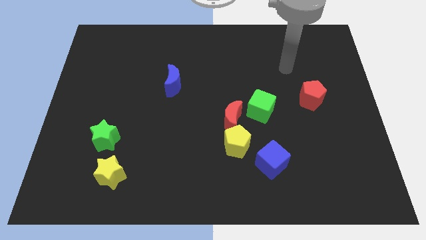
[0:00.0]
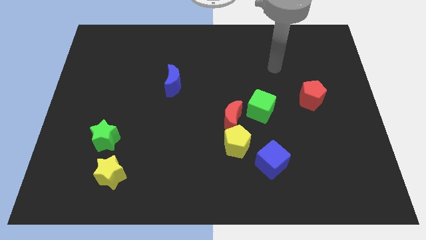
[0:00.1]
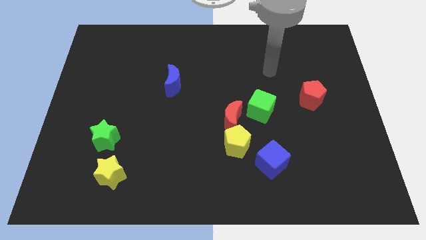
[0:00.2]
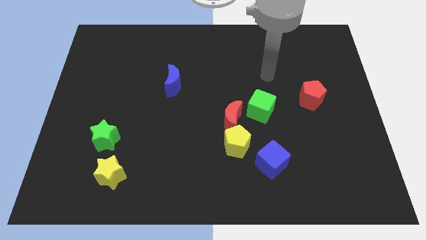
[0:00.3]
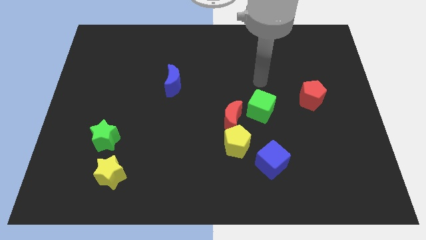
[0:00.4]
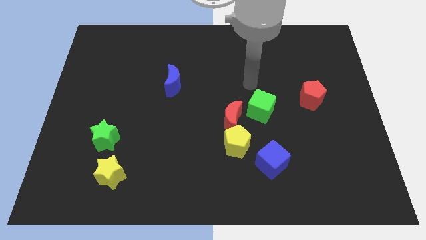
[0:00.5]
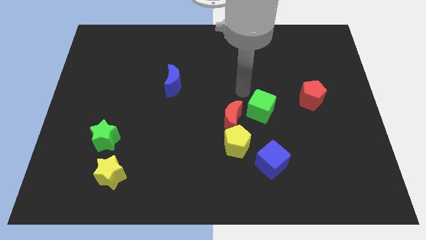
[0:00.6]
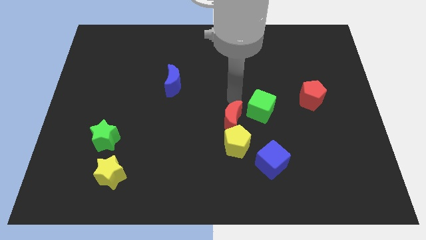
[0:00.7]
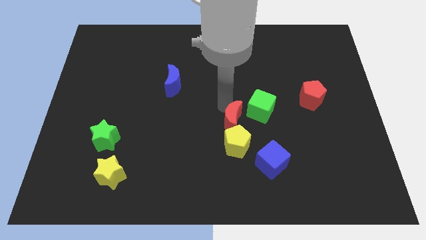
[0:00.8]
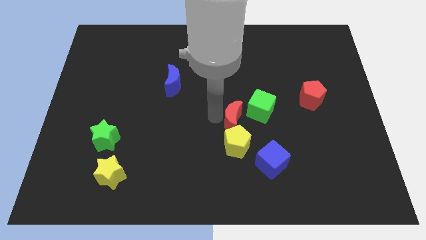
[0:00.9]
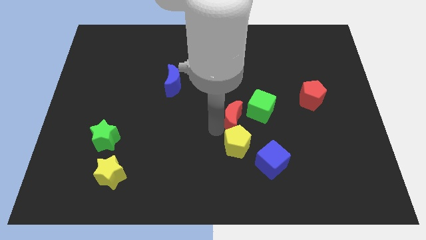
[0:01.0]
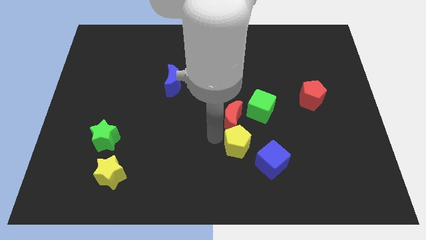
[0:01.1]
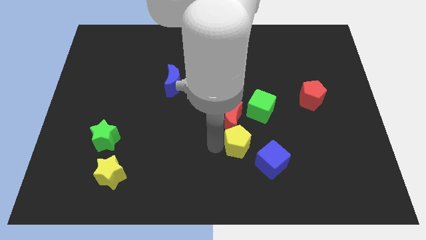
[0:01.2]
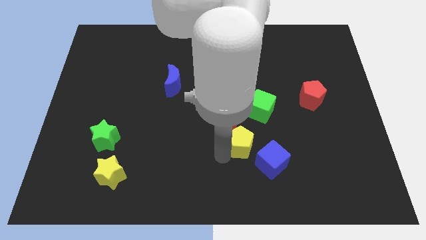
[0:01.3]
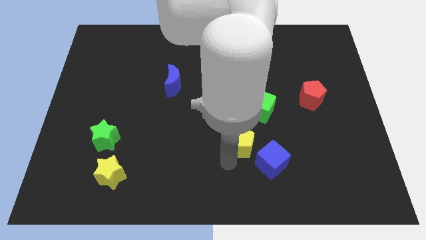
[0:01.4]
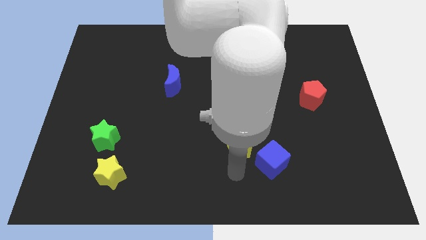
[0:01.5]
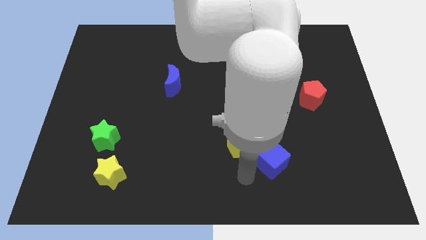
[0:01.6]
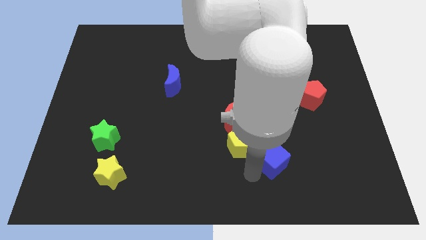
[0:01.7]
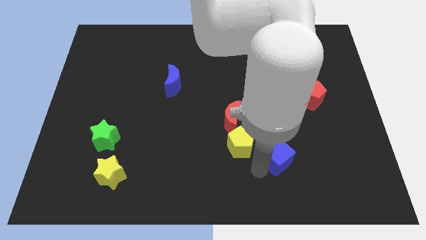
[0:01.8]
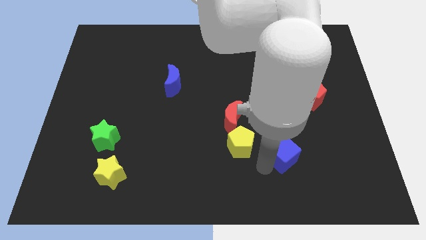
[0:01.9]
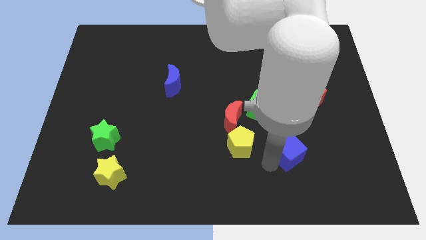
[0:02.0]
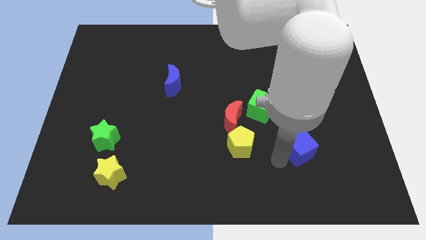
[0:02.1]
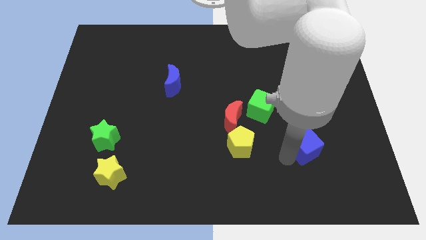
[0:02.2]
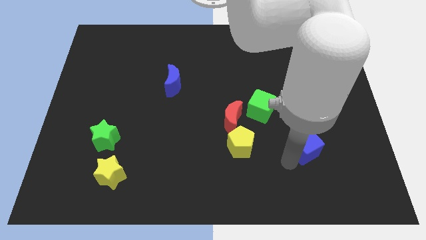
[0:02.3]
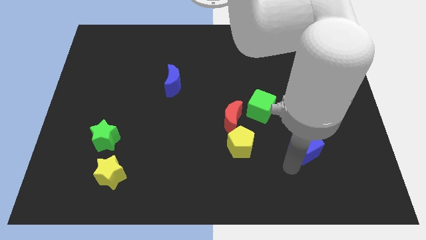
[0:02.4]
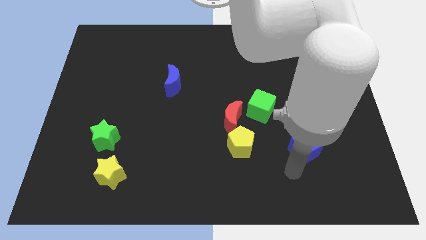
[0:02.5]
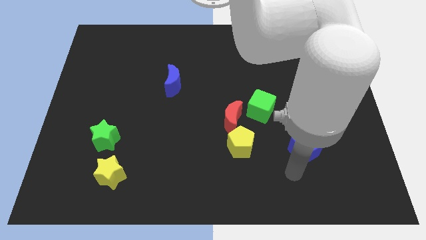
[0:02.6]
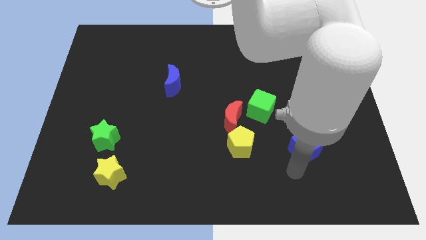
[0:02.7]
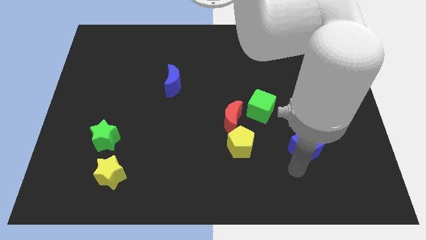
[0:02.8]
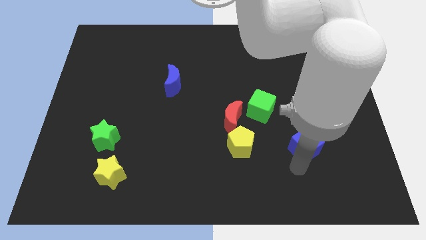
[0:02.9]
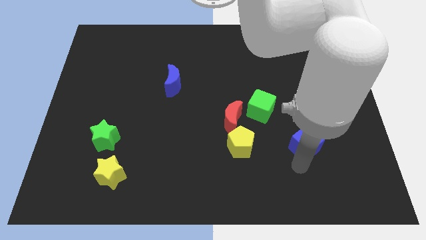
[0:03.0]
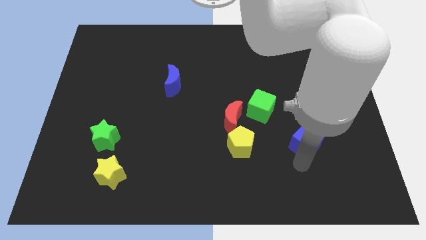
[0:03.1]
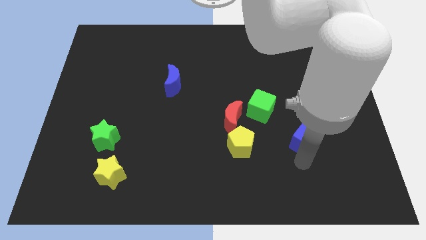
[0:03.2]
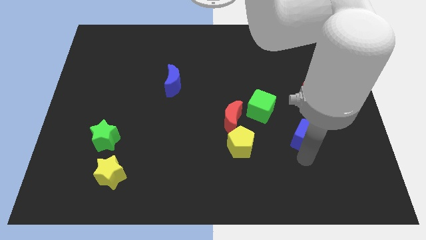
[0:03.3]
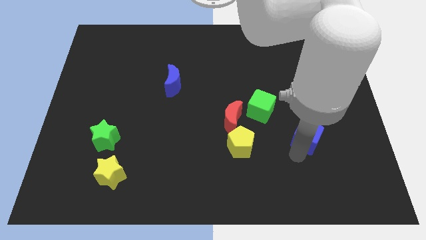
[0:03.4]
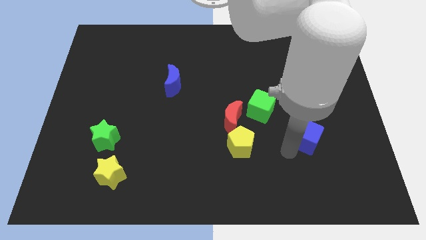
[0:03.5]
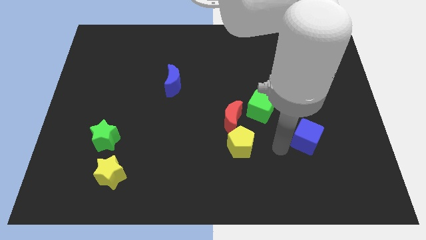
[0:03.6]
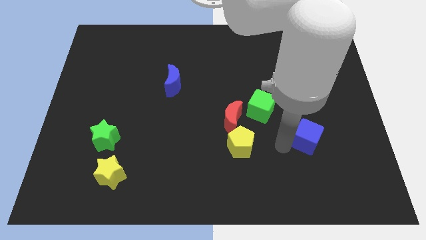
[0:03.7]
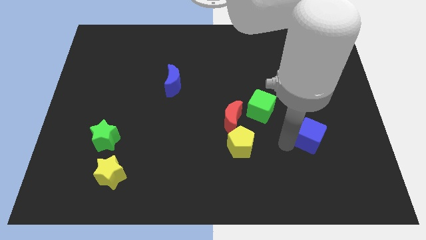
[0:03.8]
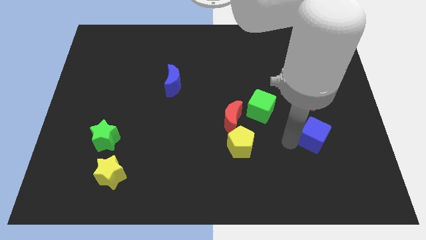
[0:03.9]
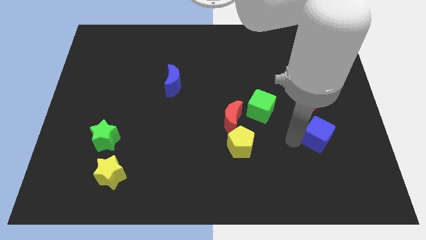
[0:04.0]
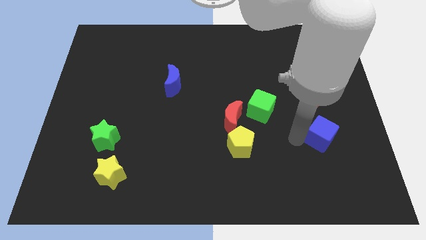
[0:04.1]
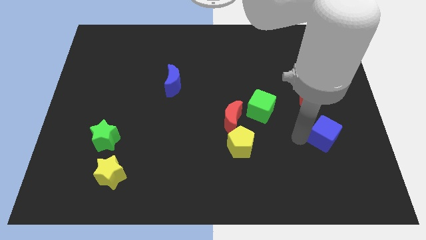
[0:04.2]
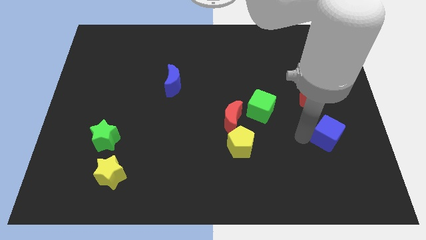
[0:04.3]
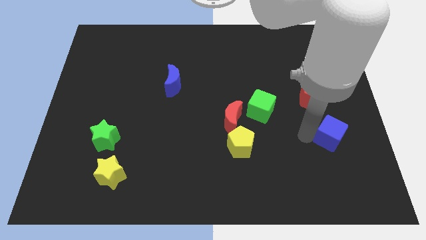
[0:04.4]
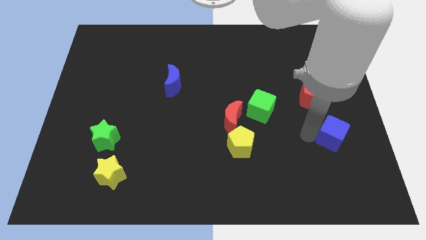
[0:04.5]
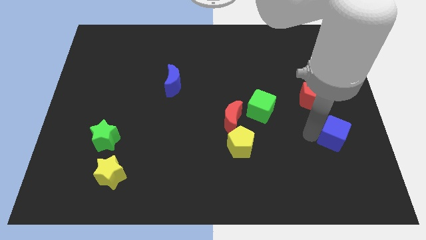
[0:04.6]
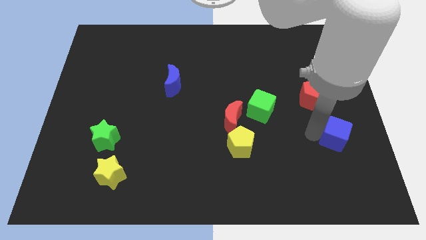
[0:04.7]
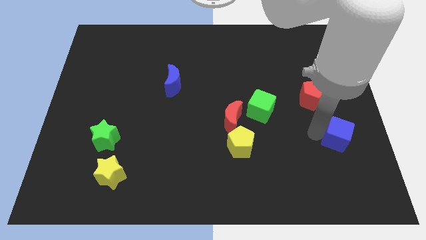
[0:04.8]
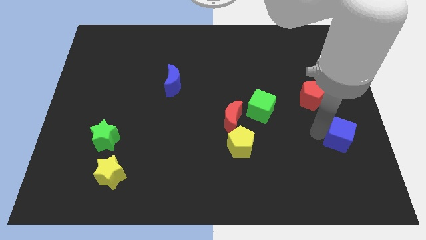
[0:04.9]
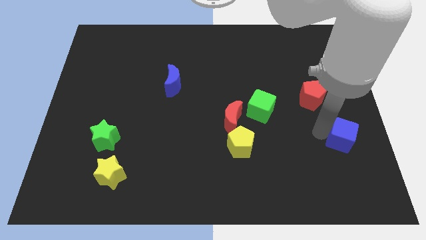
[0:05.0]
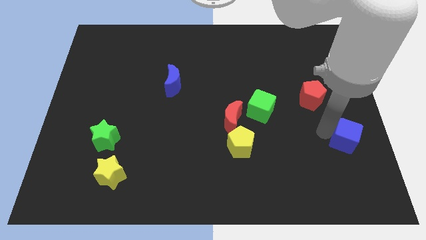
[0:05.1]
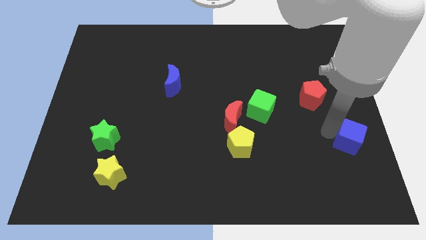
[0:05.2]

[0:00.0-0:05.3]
put the blue cube to the right side of the board

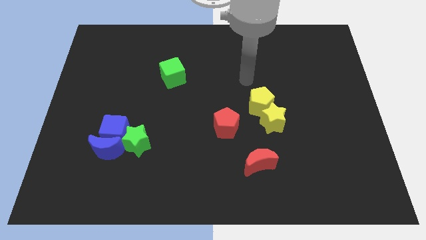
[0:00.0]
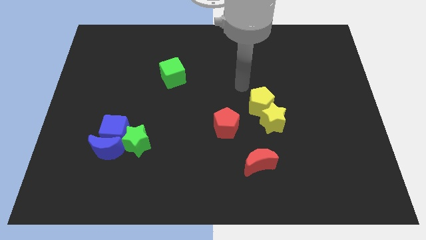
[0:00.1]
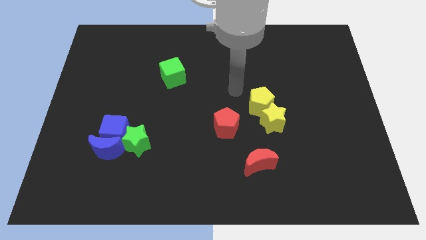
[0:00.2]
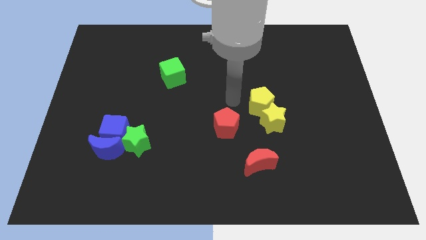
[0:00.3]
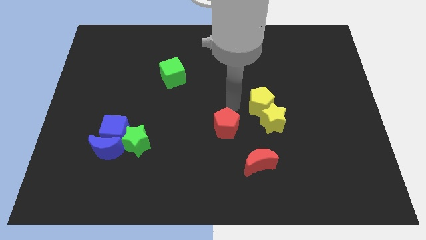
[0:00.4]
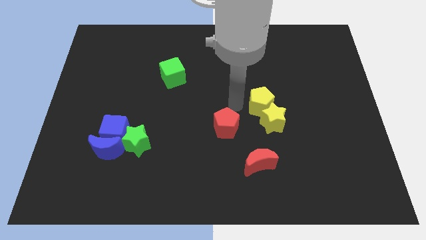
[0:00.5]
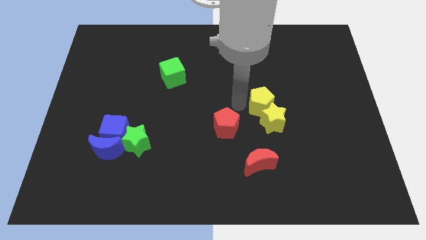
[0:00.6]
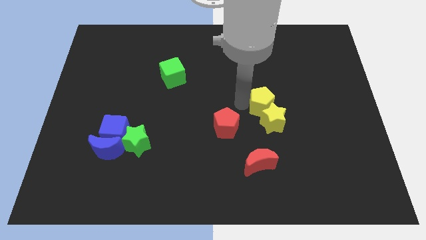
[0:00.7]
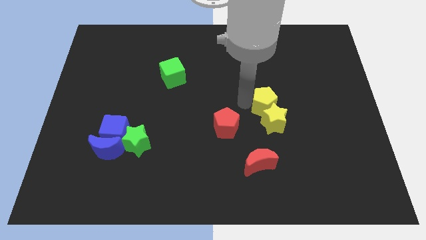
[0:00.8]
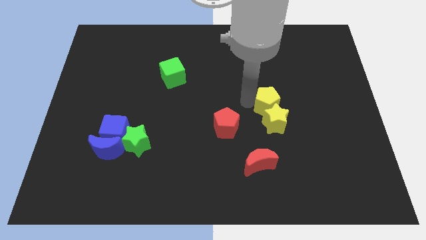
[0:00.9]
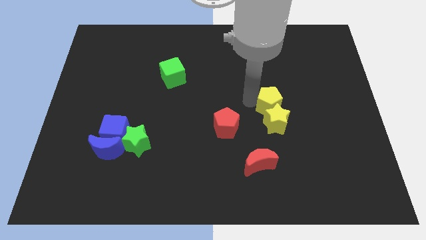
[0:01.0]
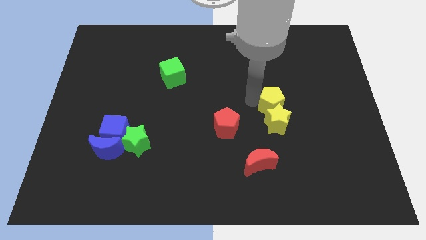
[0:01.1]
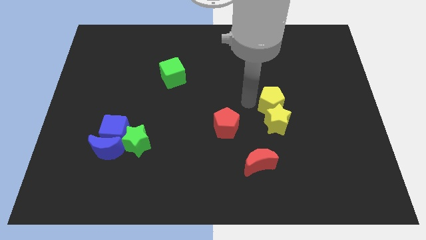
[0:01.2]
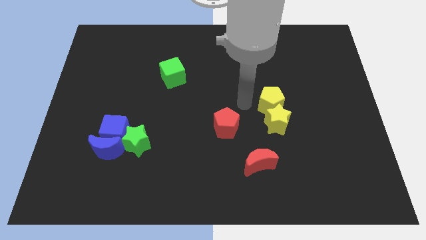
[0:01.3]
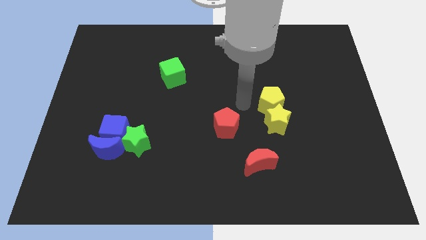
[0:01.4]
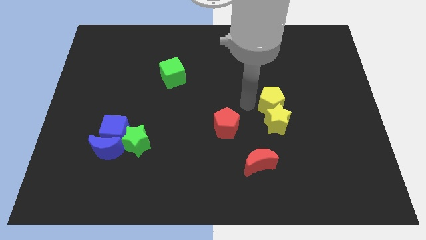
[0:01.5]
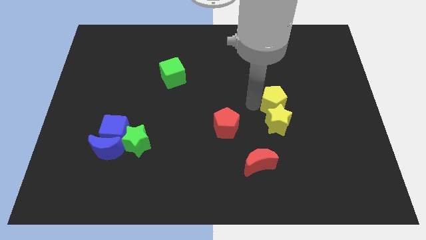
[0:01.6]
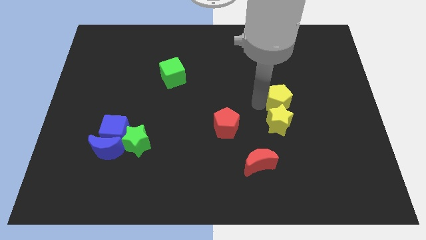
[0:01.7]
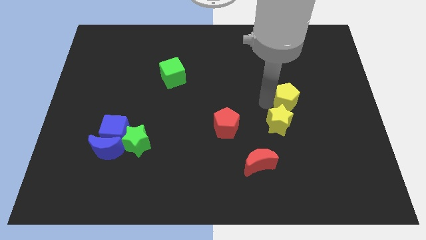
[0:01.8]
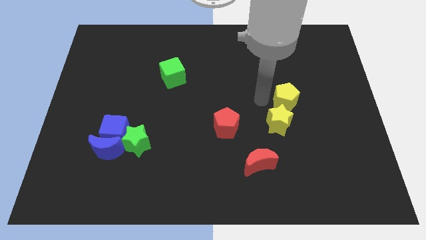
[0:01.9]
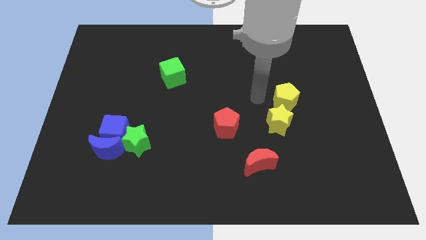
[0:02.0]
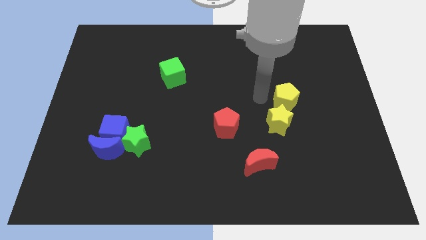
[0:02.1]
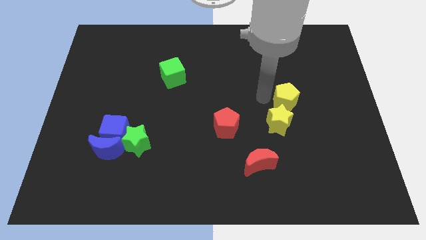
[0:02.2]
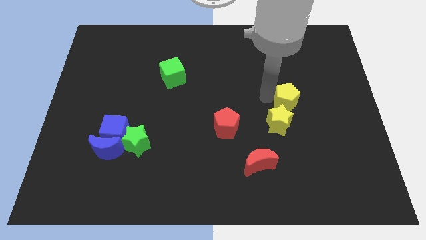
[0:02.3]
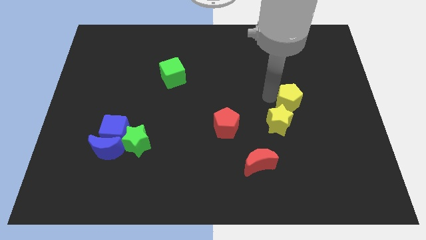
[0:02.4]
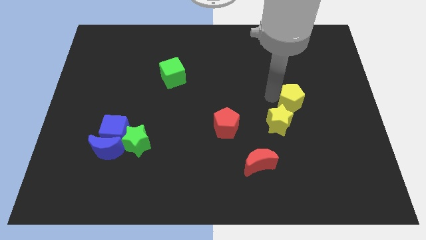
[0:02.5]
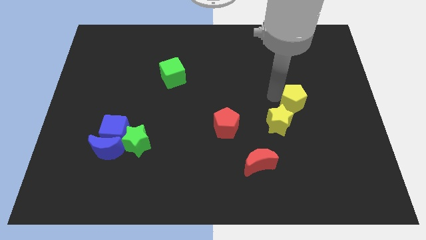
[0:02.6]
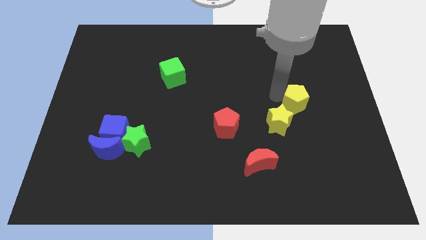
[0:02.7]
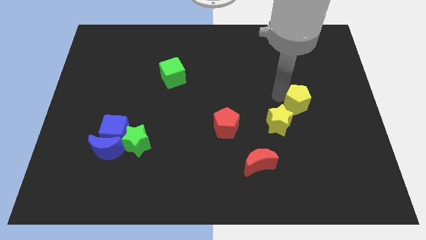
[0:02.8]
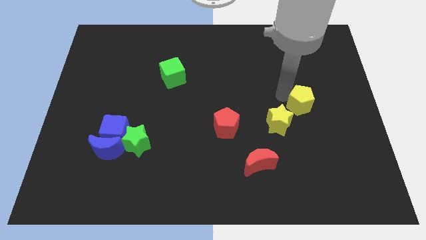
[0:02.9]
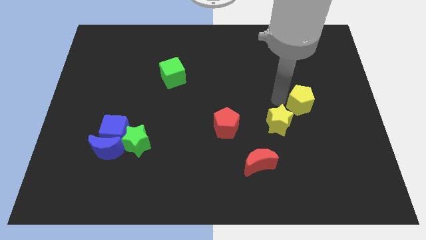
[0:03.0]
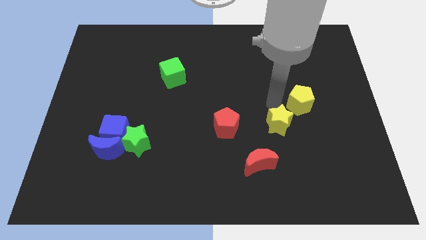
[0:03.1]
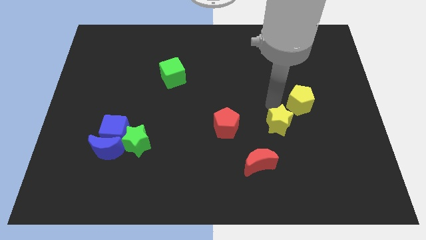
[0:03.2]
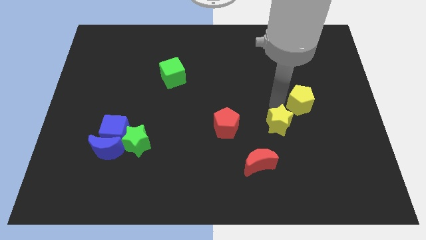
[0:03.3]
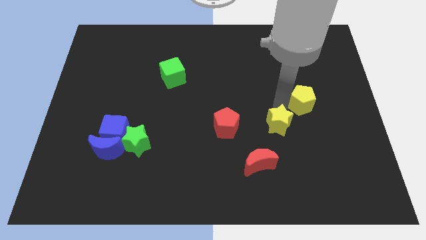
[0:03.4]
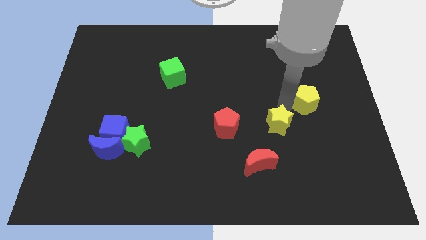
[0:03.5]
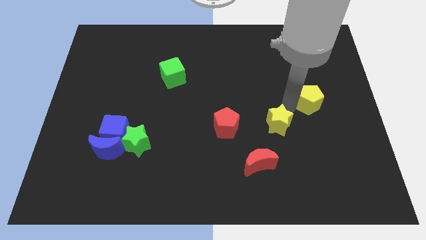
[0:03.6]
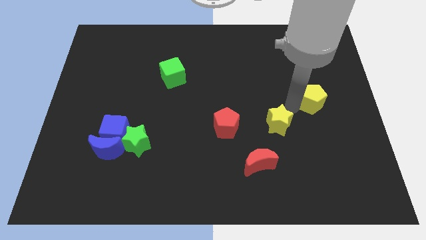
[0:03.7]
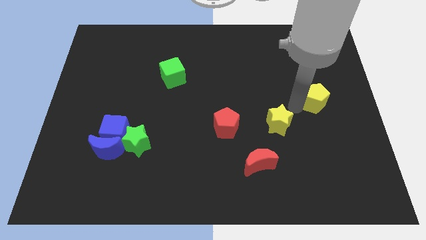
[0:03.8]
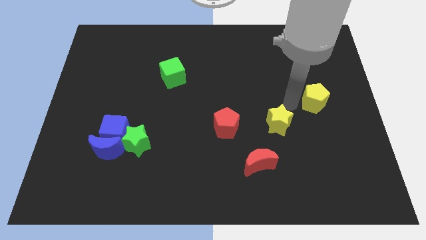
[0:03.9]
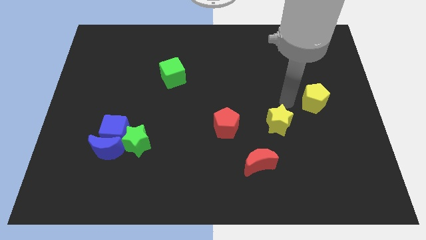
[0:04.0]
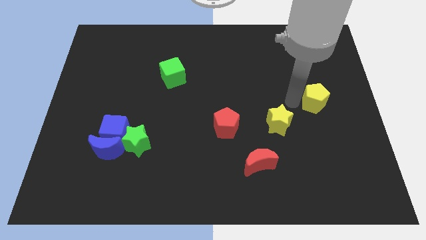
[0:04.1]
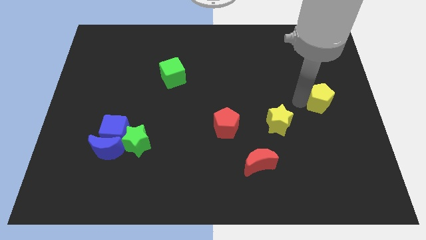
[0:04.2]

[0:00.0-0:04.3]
slide the yellow pentagon to the center right
